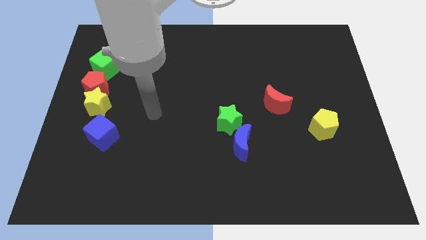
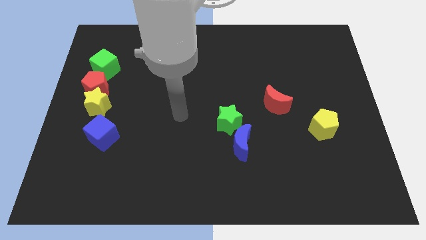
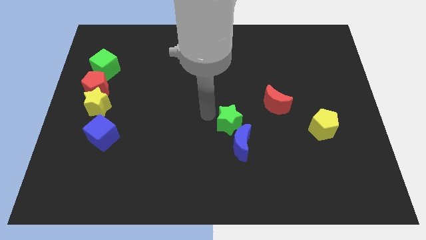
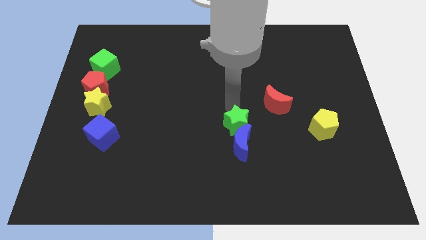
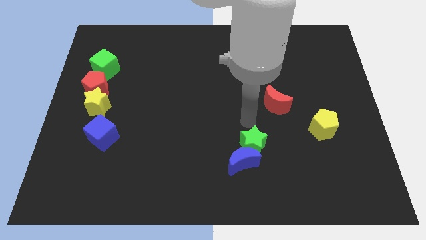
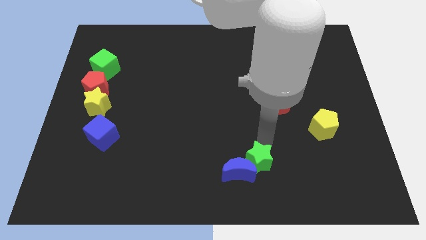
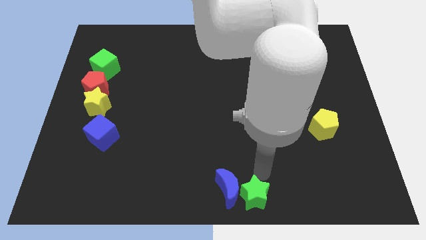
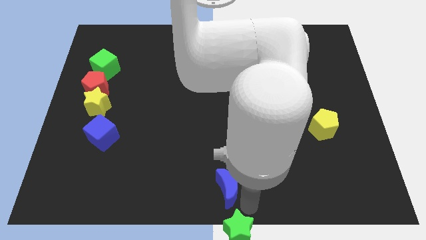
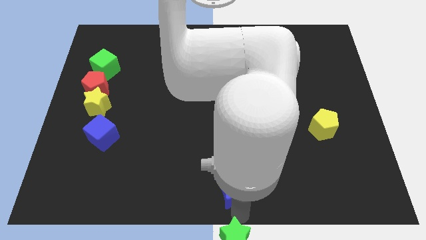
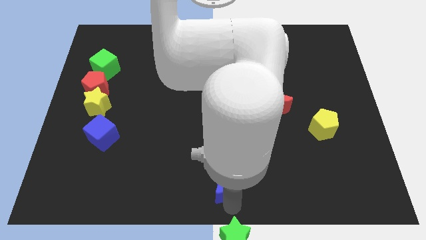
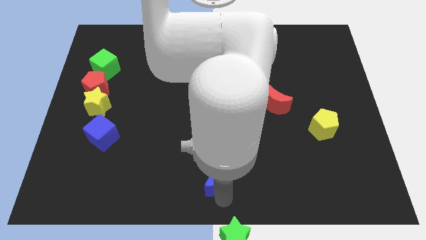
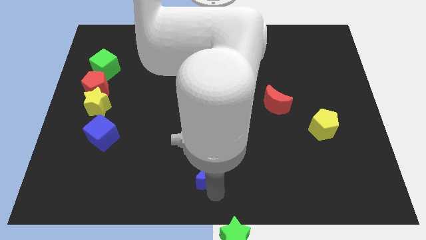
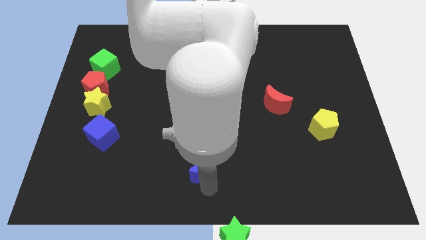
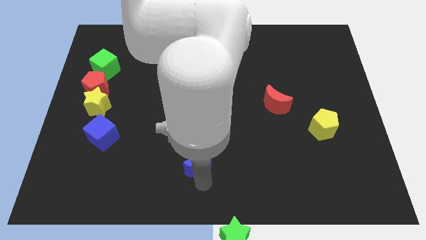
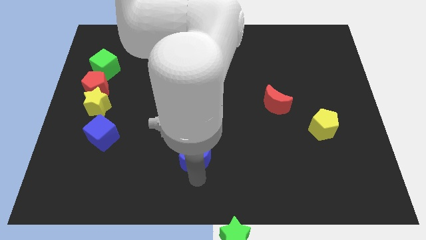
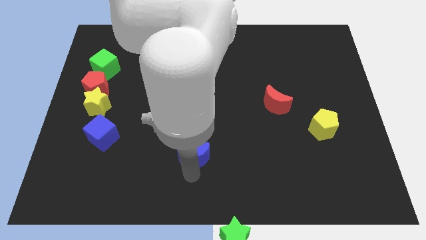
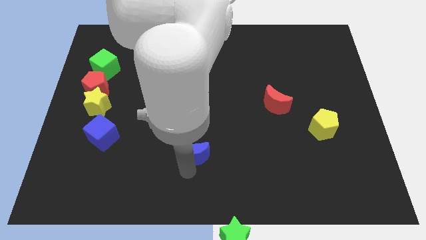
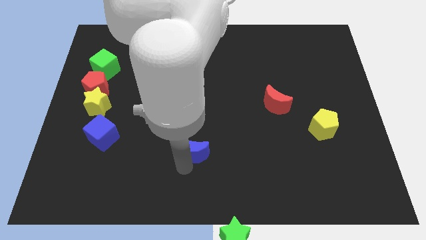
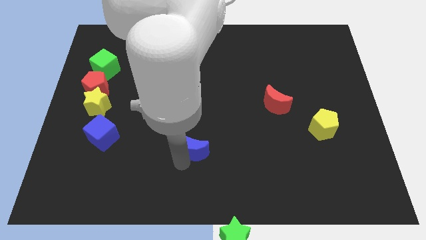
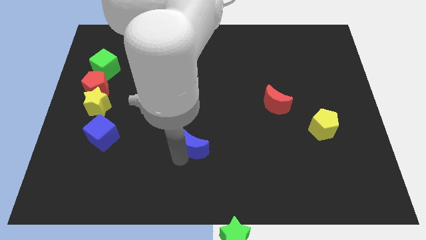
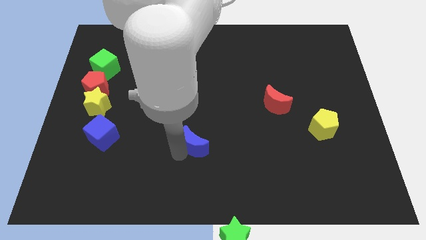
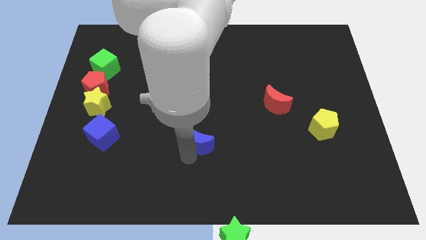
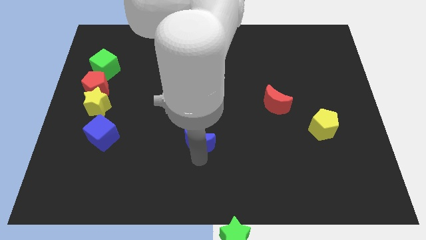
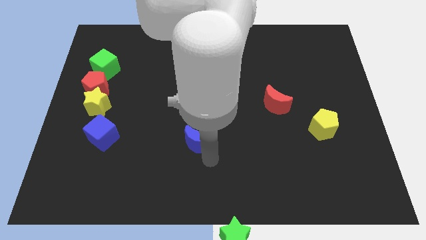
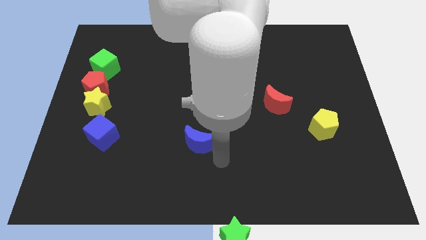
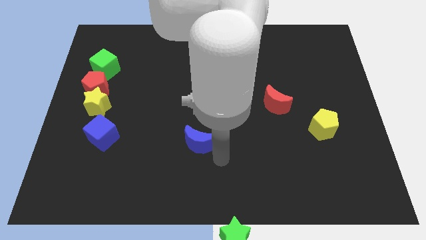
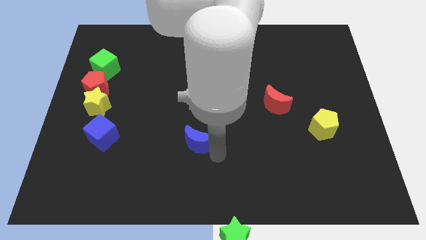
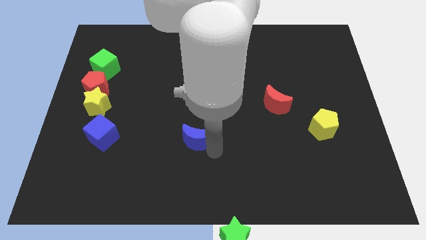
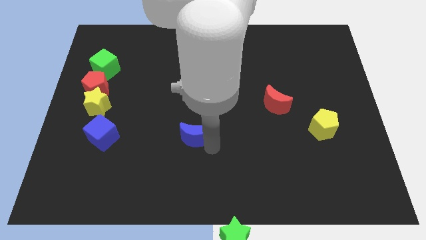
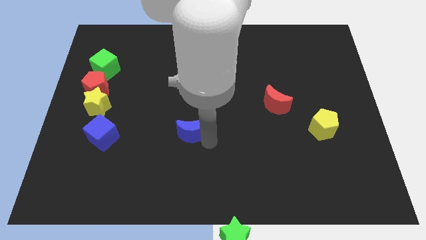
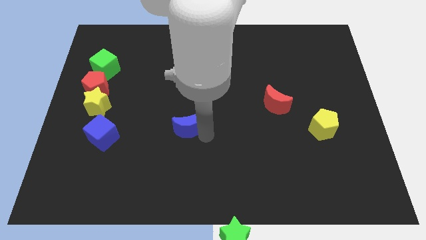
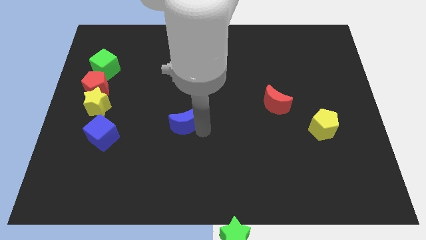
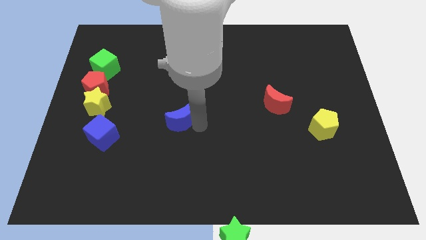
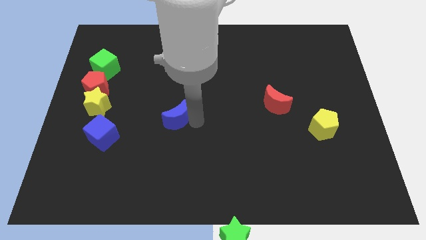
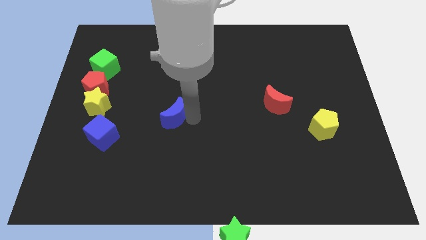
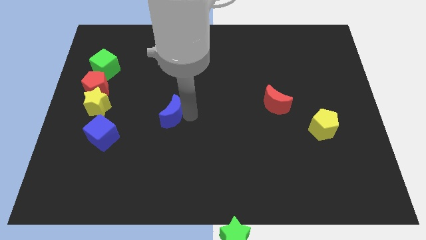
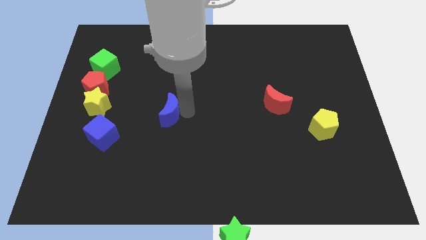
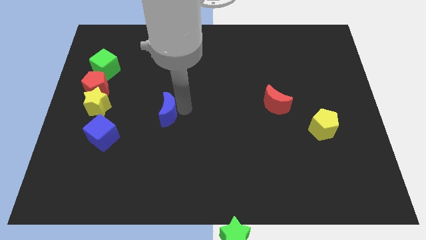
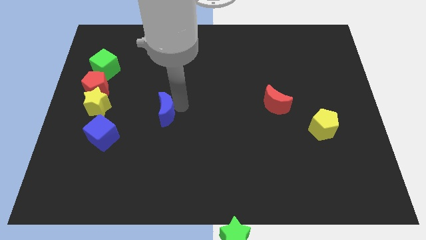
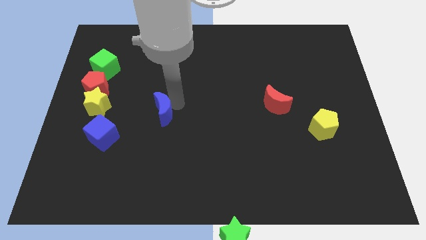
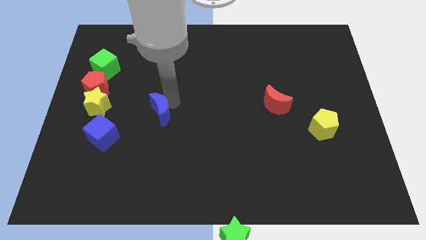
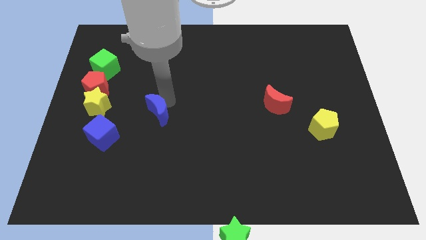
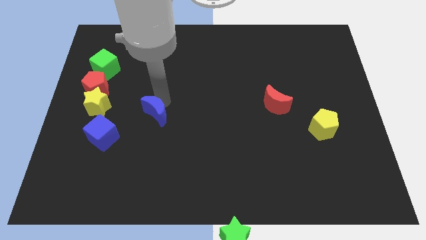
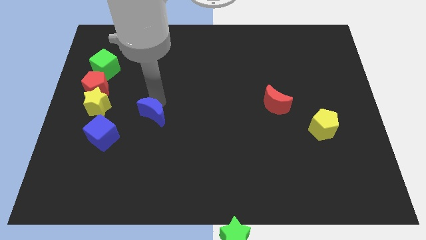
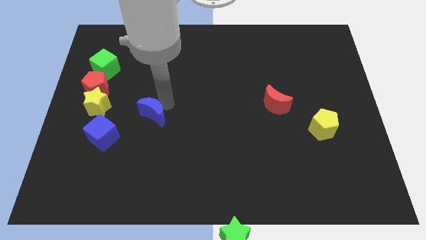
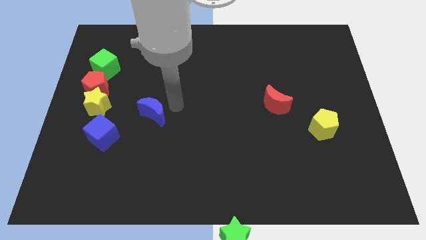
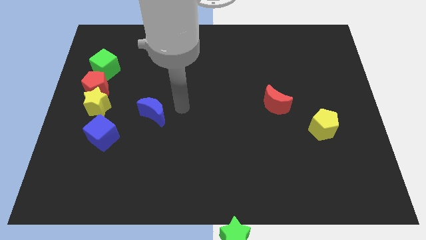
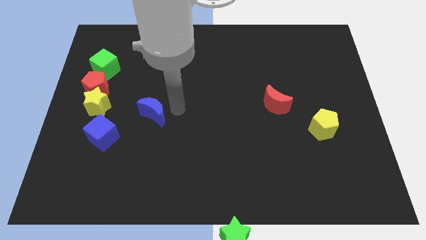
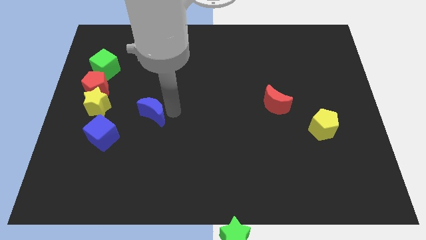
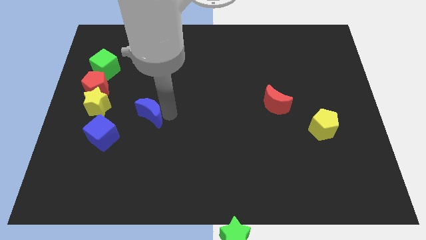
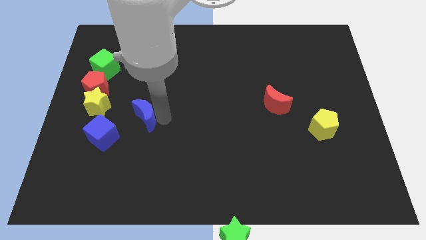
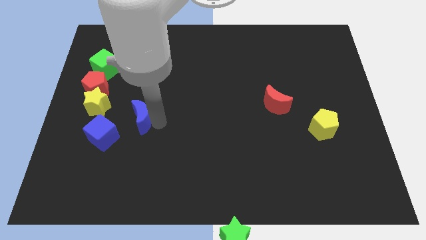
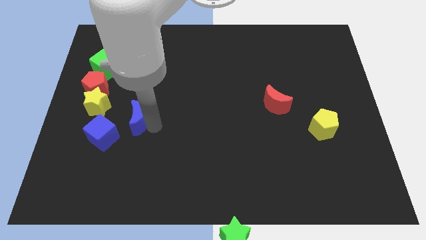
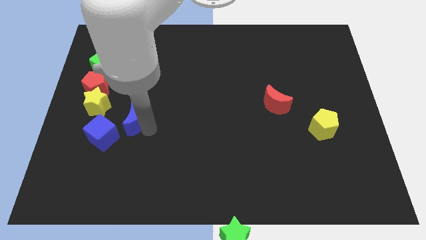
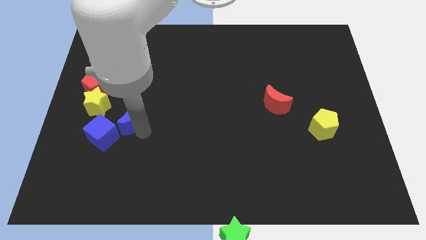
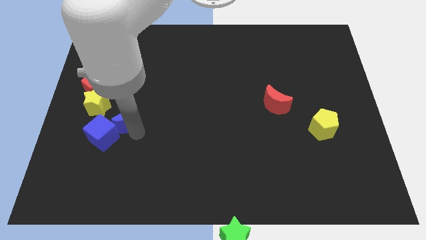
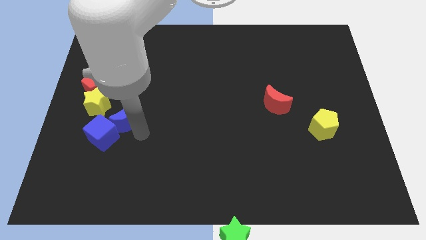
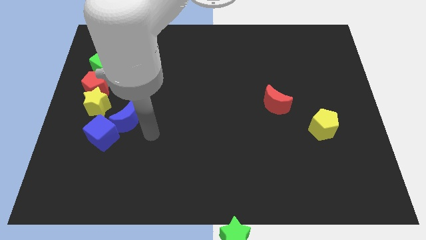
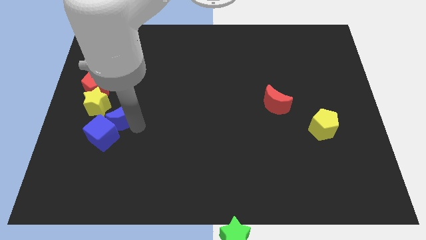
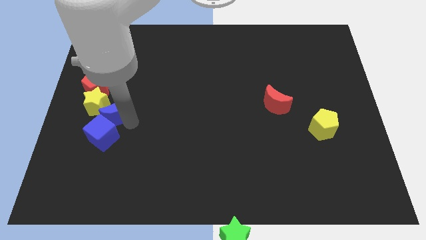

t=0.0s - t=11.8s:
put the blue moon to the yellow star
